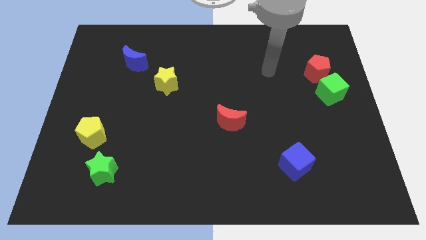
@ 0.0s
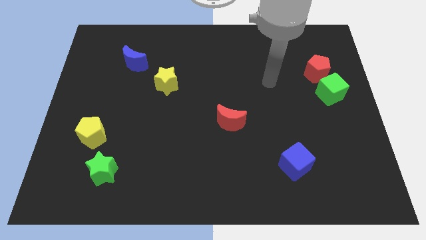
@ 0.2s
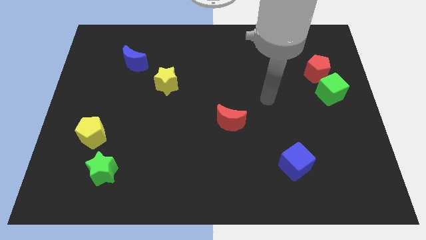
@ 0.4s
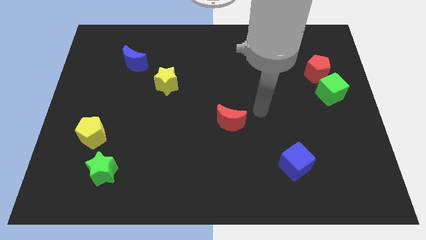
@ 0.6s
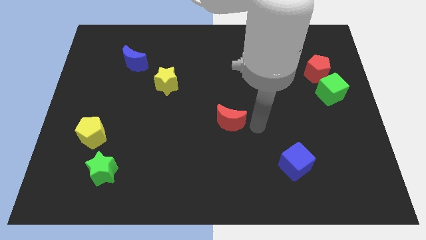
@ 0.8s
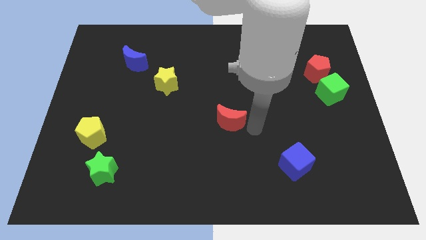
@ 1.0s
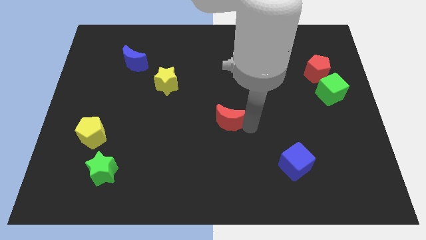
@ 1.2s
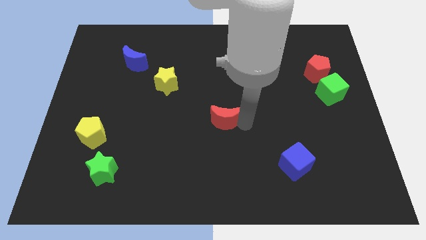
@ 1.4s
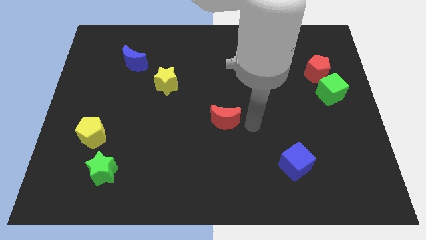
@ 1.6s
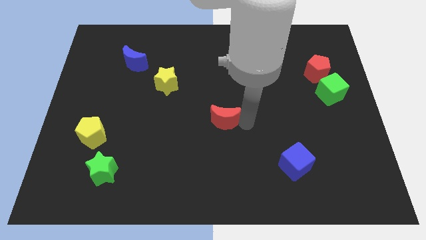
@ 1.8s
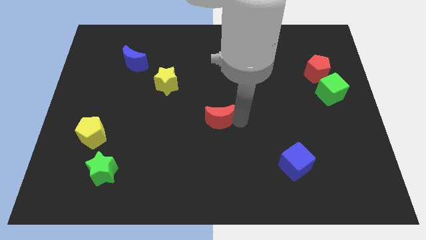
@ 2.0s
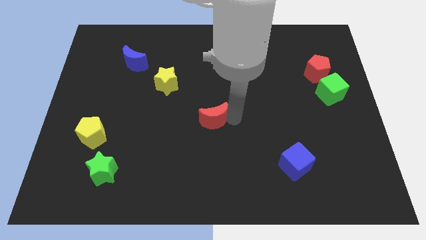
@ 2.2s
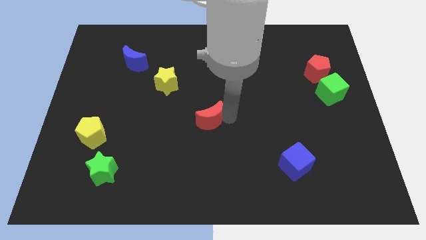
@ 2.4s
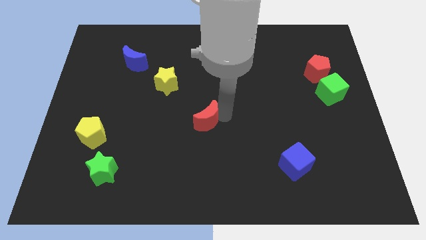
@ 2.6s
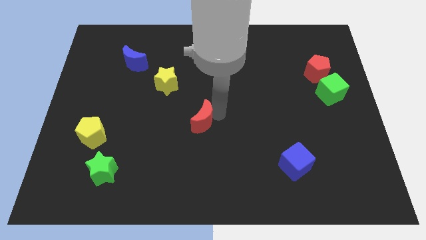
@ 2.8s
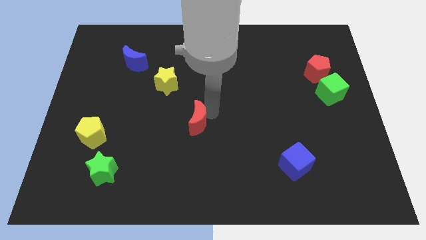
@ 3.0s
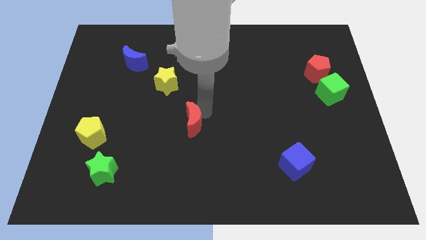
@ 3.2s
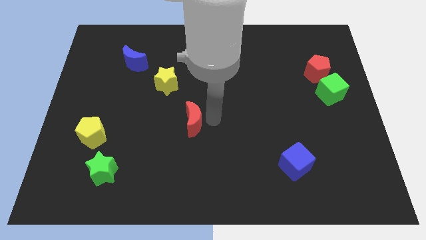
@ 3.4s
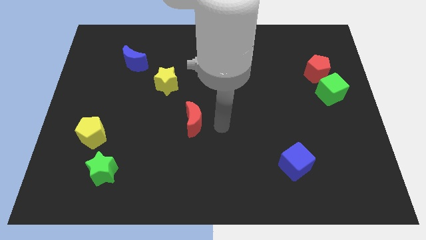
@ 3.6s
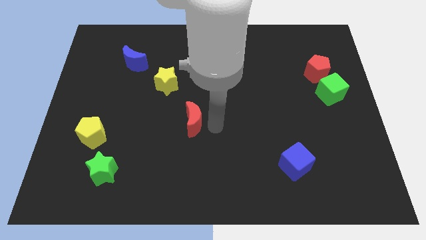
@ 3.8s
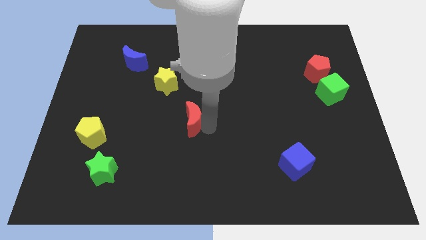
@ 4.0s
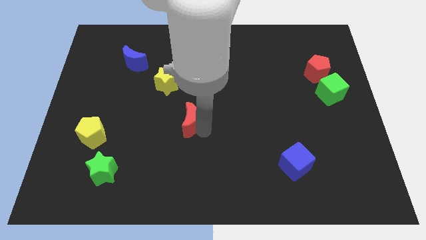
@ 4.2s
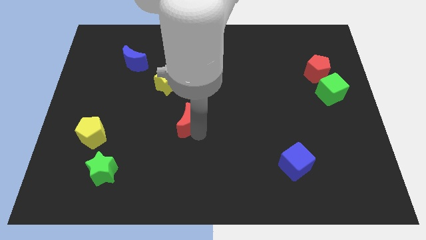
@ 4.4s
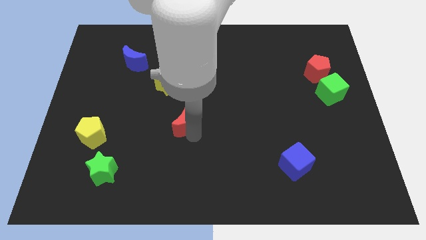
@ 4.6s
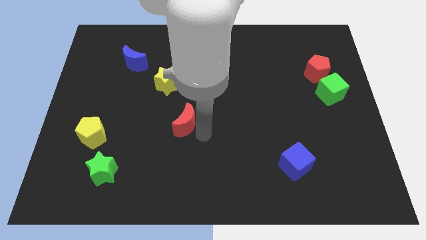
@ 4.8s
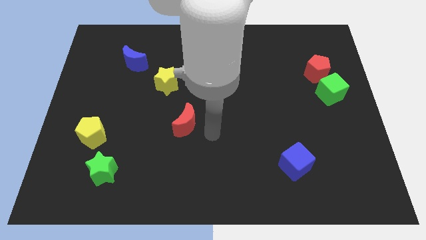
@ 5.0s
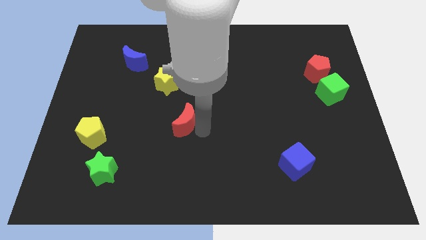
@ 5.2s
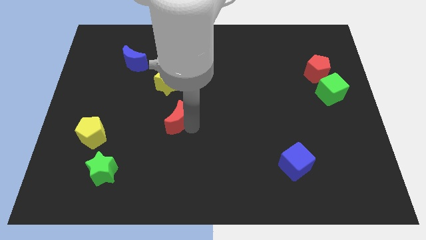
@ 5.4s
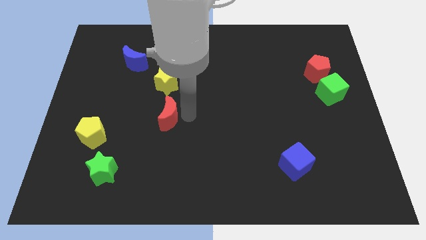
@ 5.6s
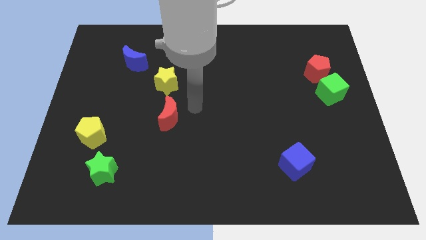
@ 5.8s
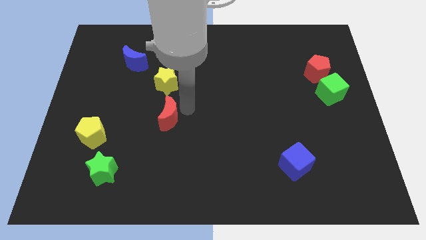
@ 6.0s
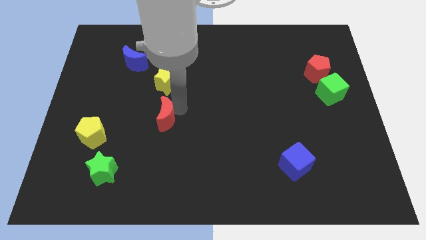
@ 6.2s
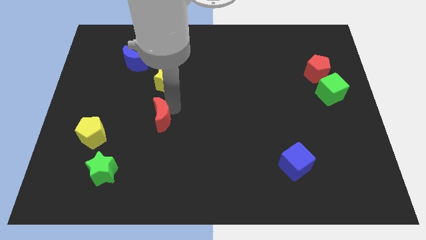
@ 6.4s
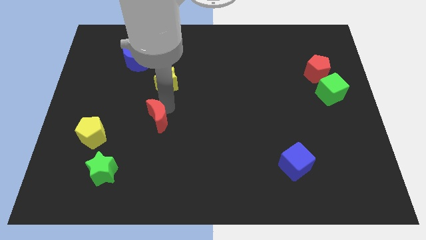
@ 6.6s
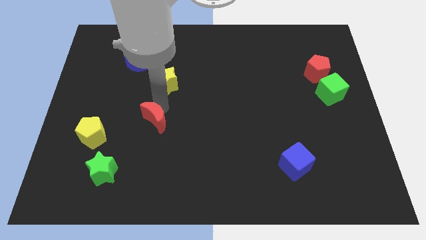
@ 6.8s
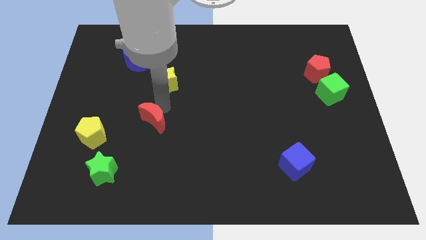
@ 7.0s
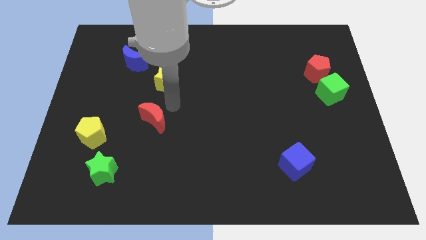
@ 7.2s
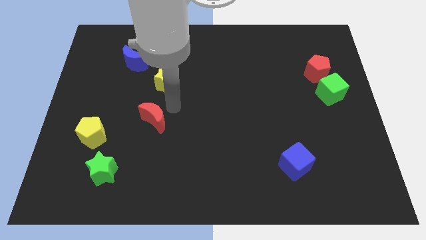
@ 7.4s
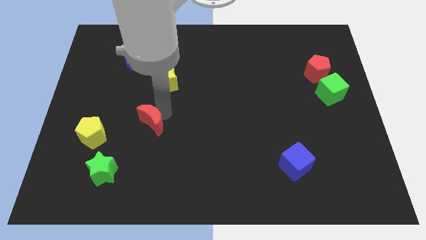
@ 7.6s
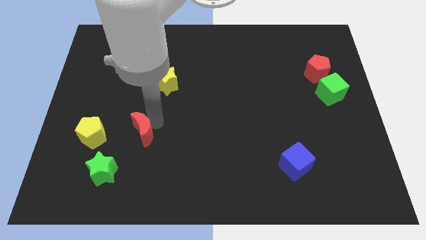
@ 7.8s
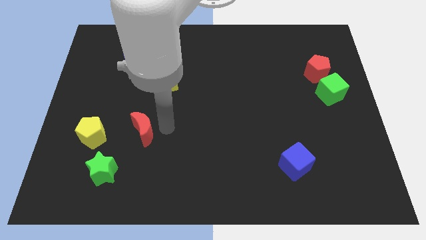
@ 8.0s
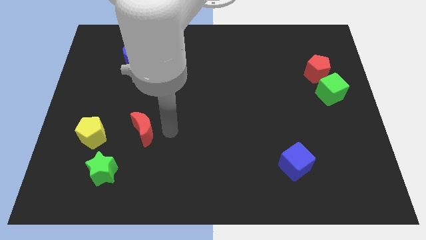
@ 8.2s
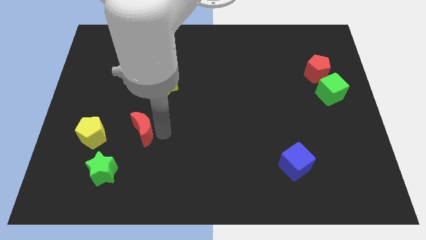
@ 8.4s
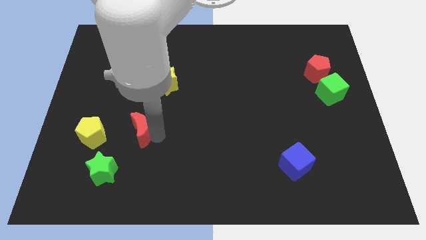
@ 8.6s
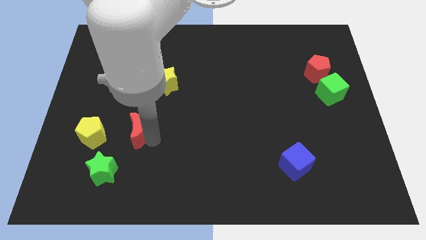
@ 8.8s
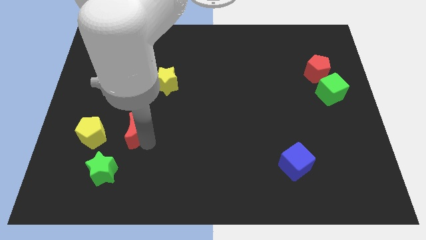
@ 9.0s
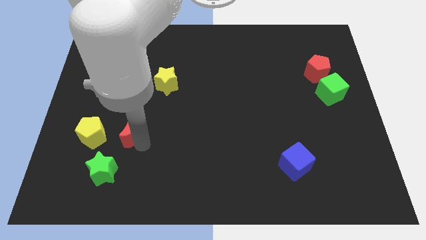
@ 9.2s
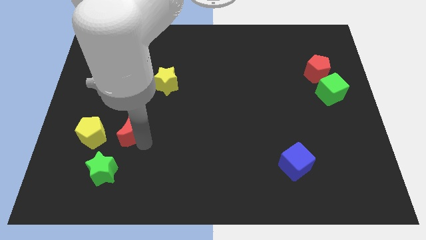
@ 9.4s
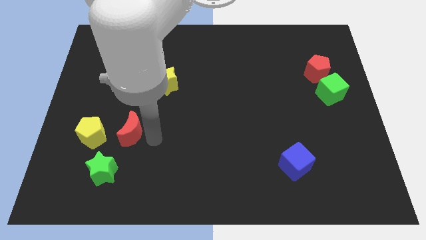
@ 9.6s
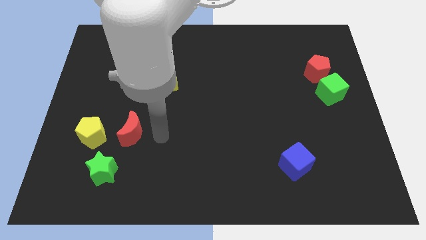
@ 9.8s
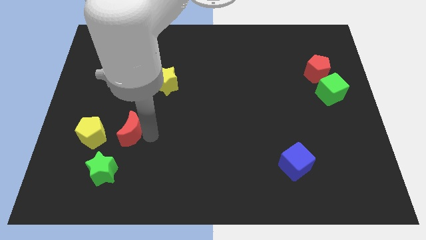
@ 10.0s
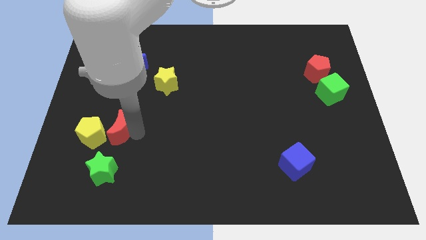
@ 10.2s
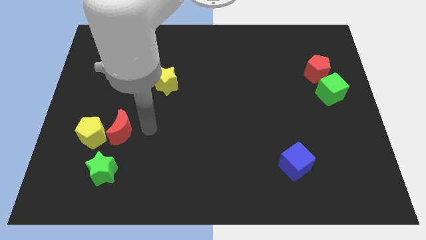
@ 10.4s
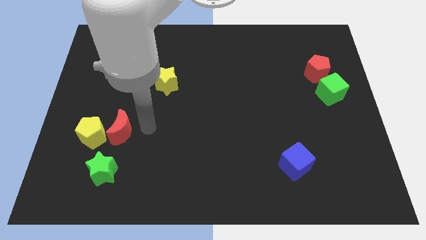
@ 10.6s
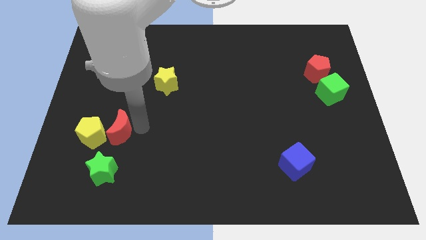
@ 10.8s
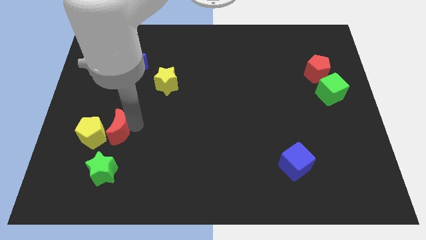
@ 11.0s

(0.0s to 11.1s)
push the red moon to the yellow pentagon

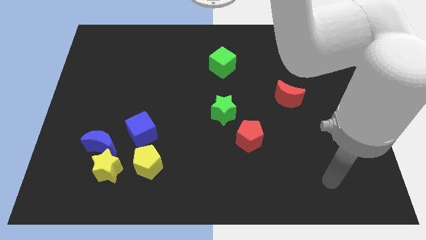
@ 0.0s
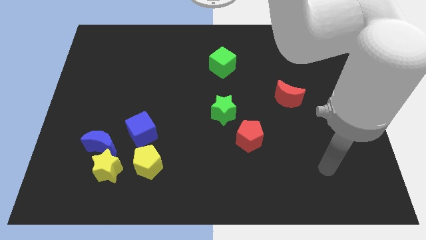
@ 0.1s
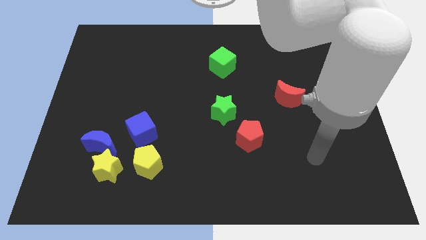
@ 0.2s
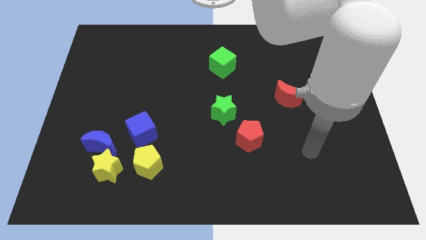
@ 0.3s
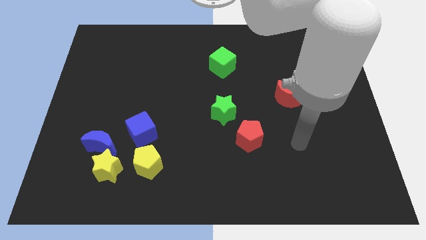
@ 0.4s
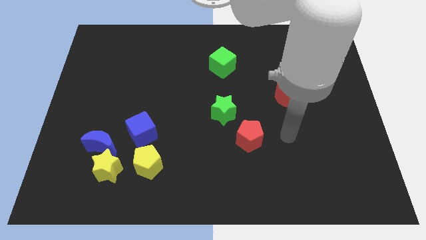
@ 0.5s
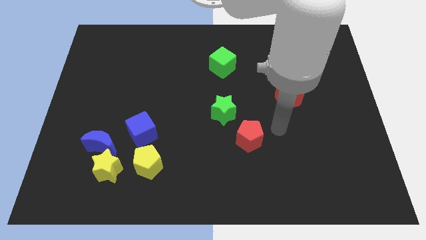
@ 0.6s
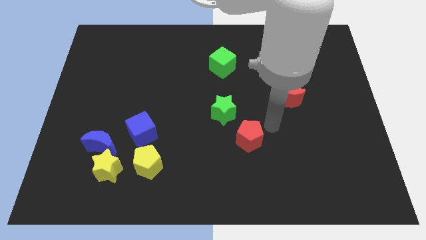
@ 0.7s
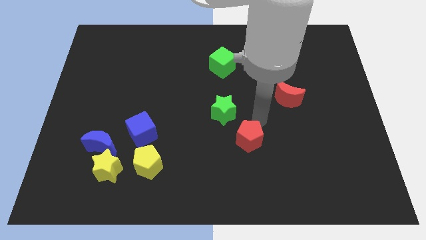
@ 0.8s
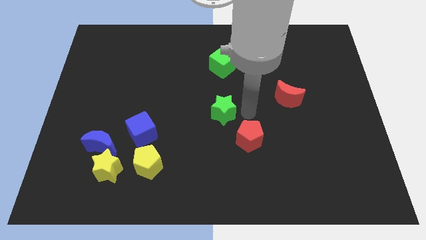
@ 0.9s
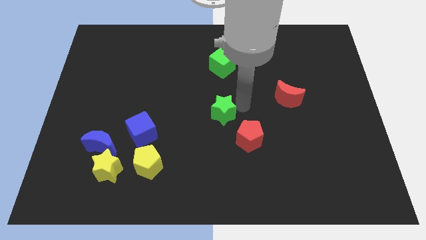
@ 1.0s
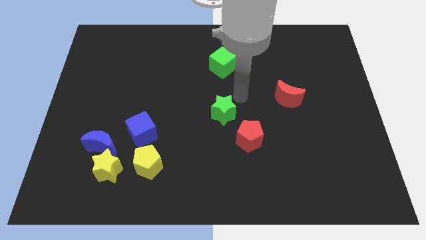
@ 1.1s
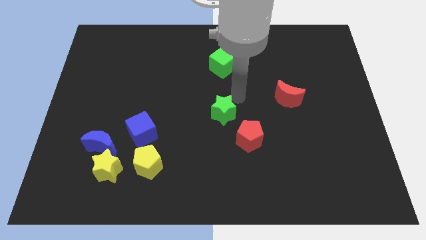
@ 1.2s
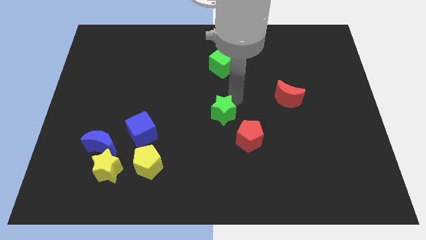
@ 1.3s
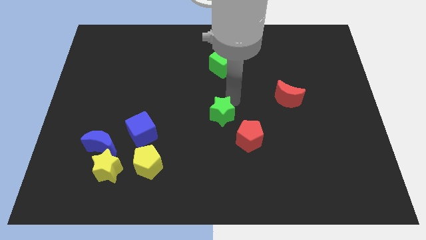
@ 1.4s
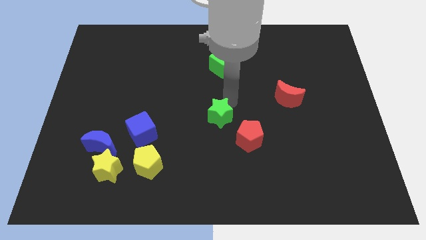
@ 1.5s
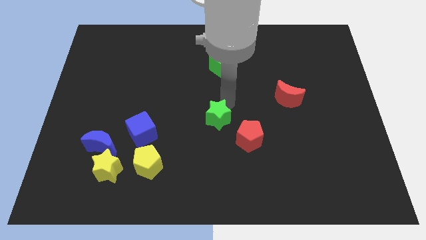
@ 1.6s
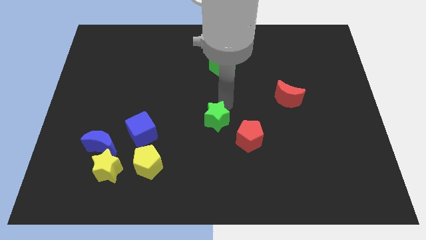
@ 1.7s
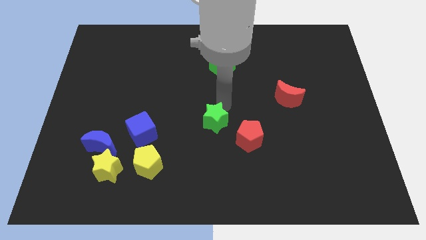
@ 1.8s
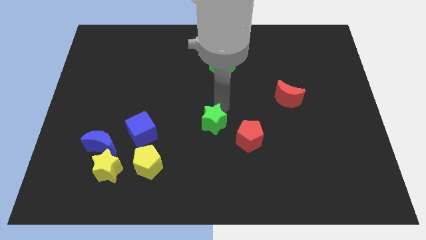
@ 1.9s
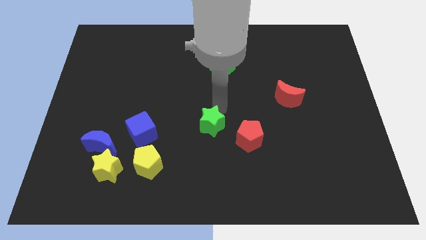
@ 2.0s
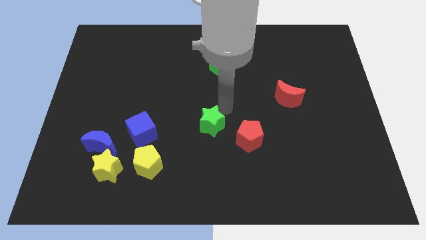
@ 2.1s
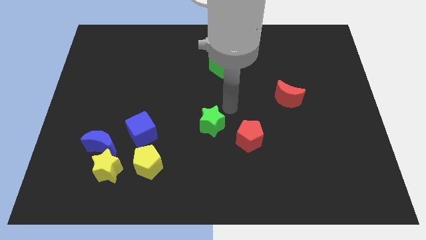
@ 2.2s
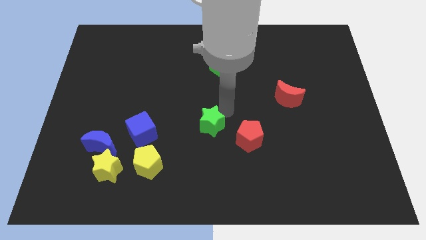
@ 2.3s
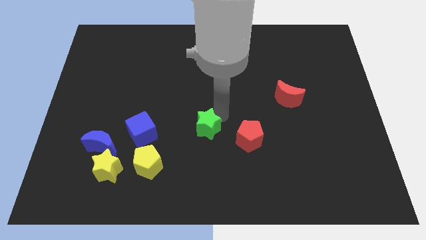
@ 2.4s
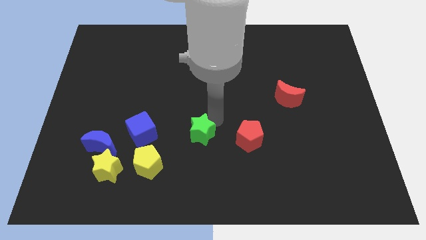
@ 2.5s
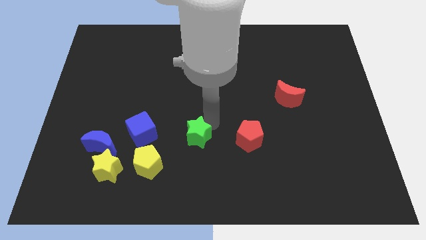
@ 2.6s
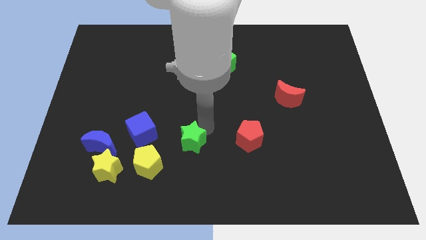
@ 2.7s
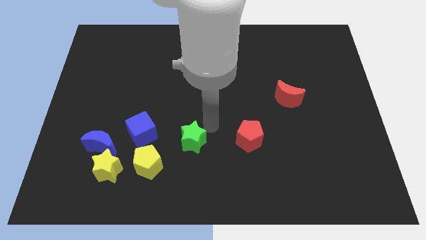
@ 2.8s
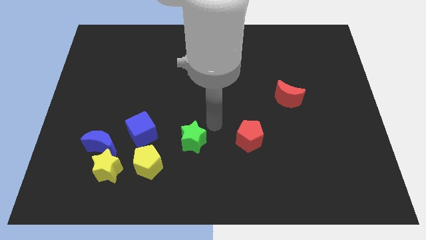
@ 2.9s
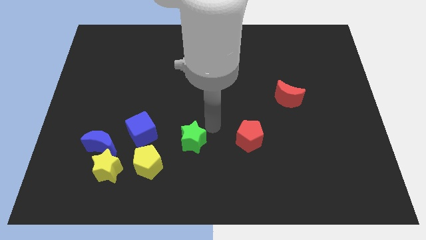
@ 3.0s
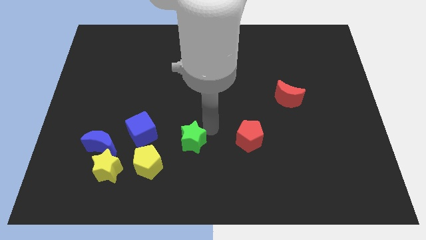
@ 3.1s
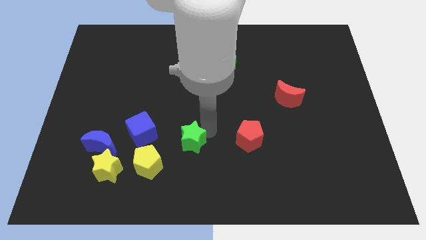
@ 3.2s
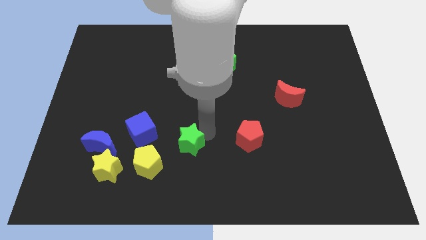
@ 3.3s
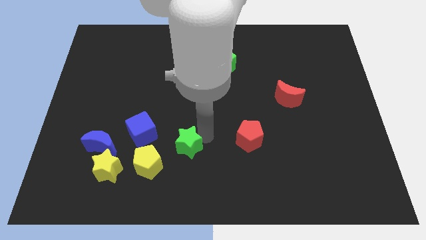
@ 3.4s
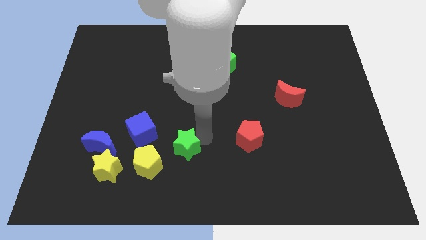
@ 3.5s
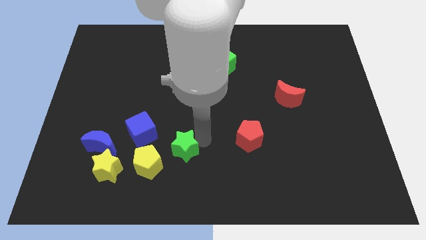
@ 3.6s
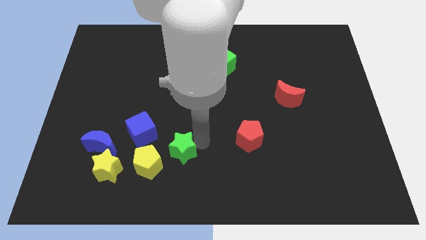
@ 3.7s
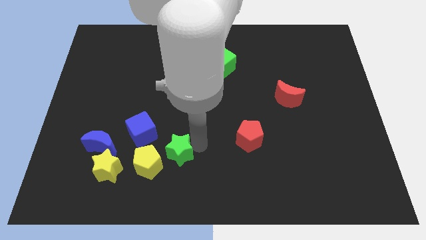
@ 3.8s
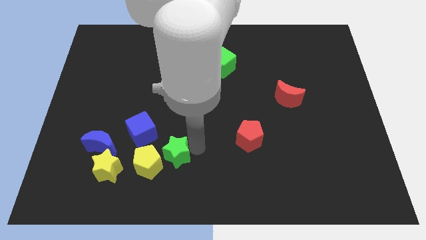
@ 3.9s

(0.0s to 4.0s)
slide the green star close to the yellow pentagon
